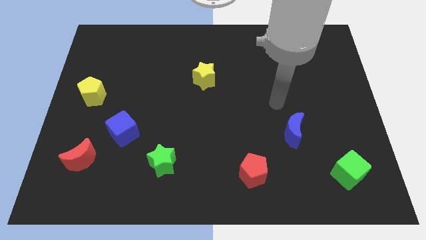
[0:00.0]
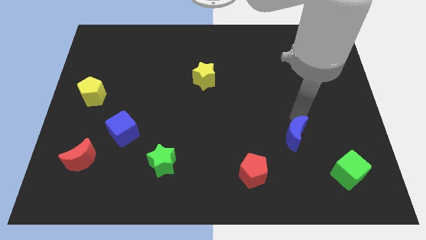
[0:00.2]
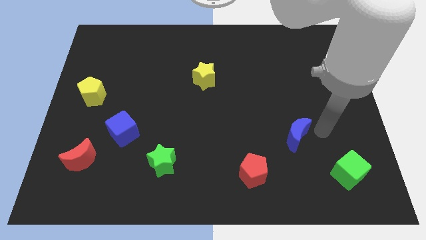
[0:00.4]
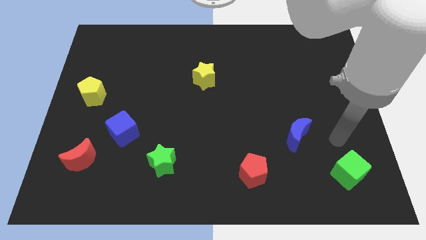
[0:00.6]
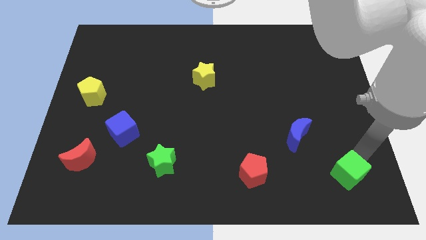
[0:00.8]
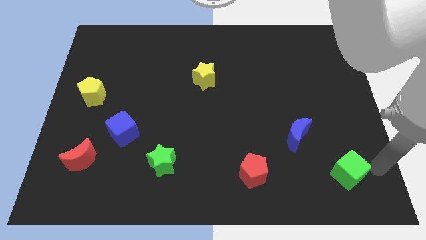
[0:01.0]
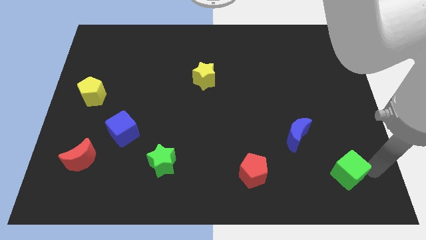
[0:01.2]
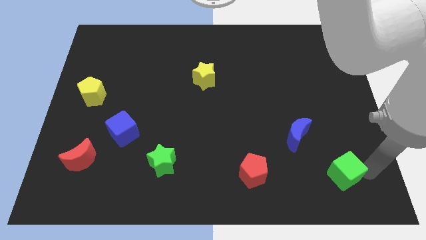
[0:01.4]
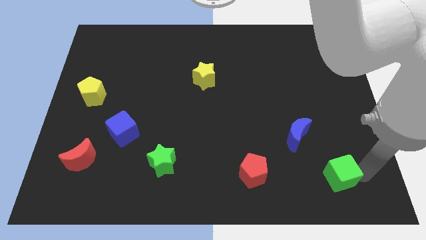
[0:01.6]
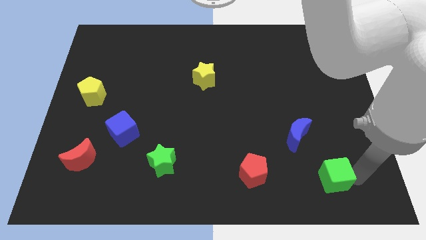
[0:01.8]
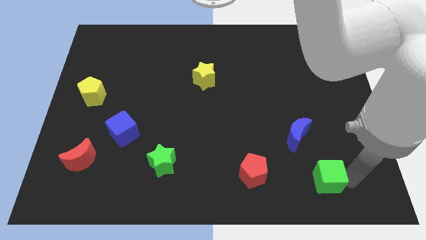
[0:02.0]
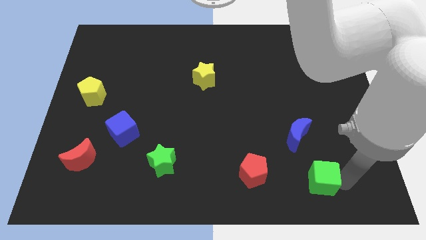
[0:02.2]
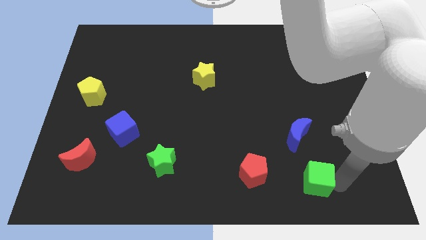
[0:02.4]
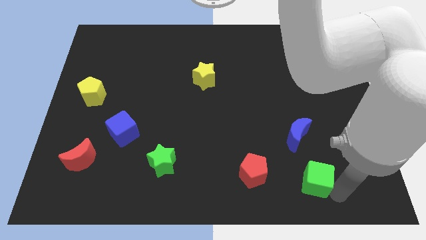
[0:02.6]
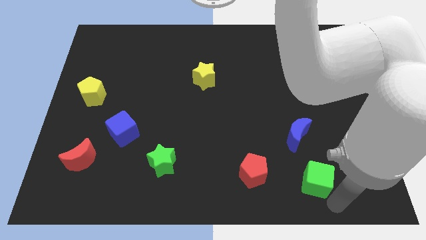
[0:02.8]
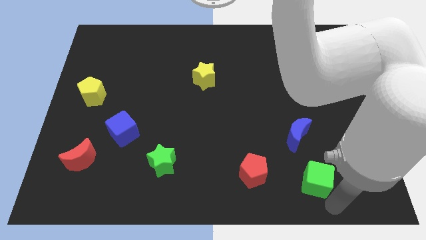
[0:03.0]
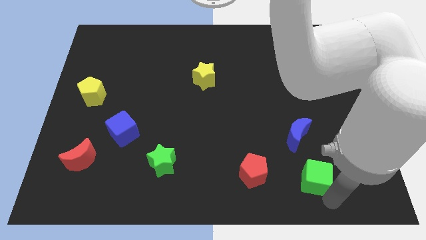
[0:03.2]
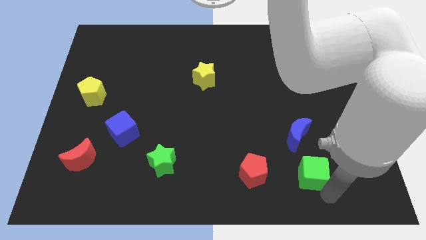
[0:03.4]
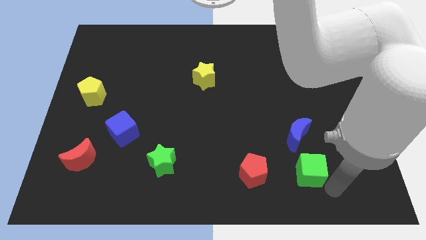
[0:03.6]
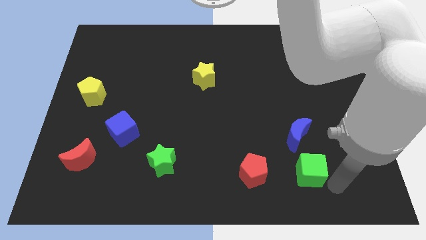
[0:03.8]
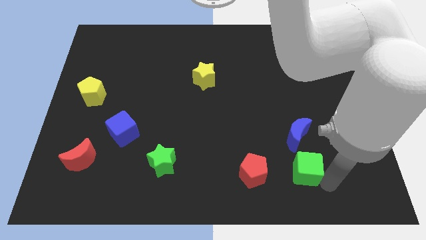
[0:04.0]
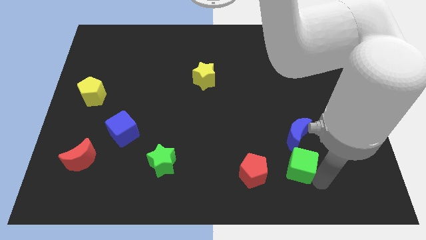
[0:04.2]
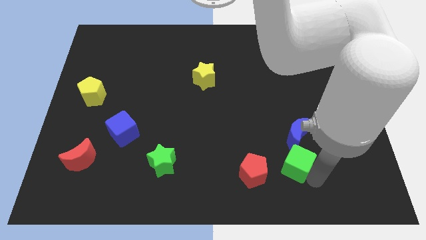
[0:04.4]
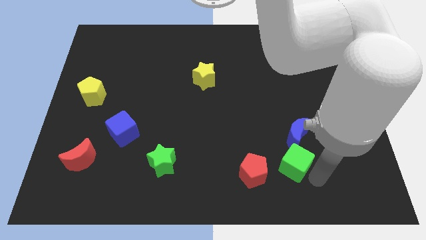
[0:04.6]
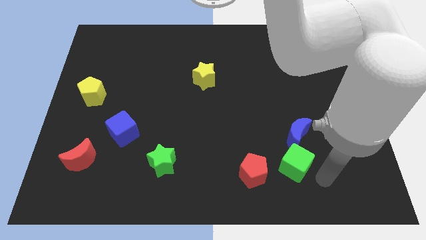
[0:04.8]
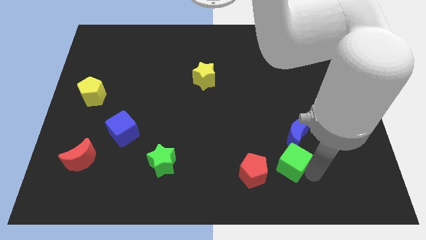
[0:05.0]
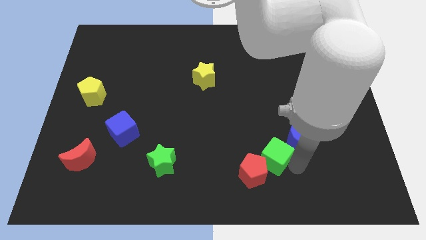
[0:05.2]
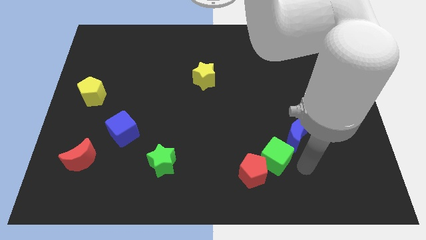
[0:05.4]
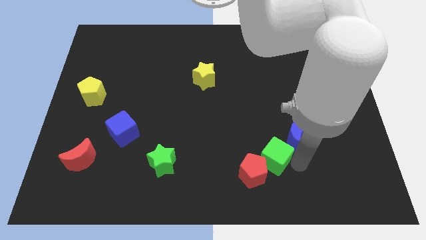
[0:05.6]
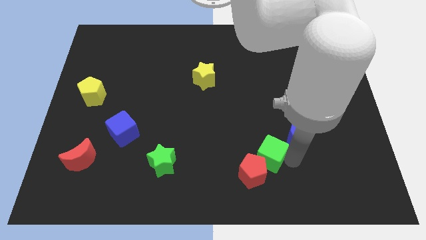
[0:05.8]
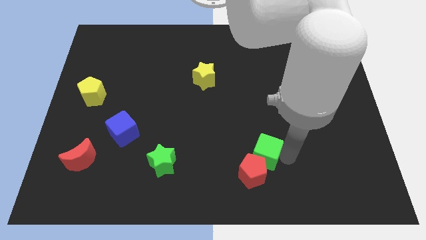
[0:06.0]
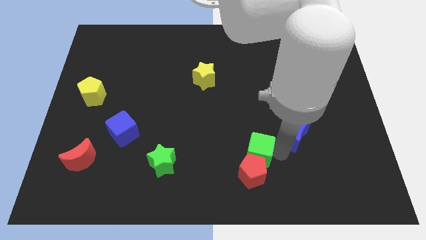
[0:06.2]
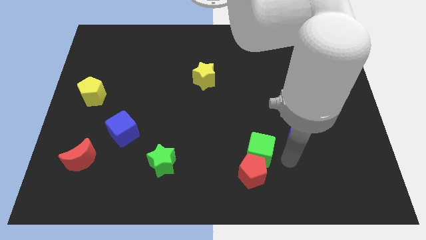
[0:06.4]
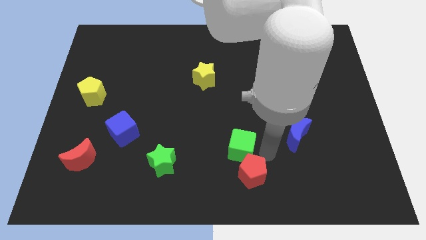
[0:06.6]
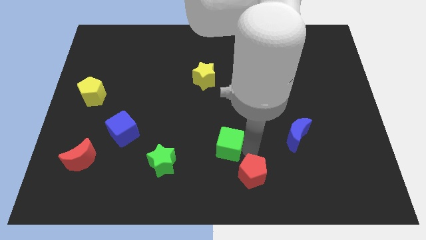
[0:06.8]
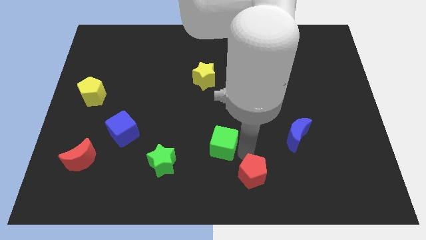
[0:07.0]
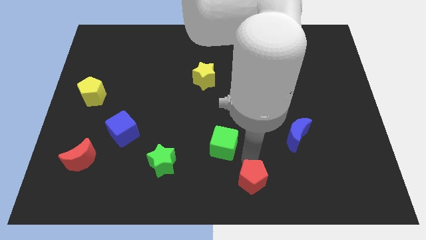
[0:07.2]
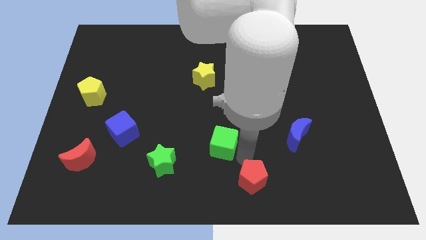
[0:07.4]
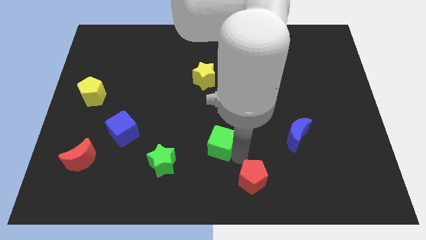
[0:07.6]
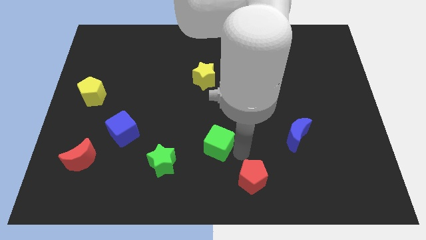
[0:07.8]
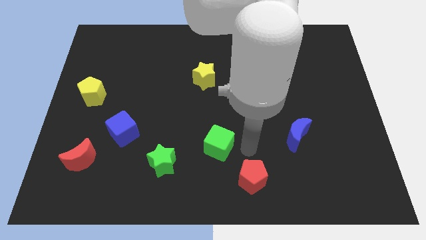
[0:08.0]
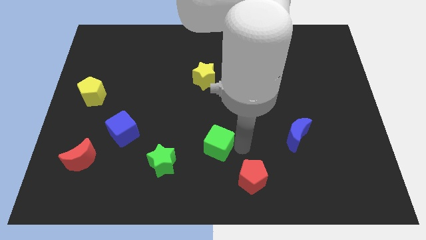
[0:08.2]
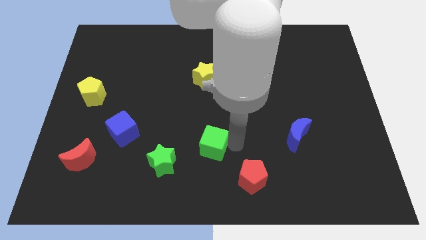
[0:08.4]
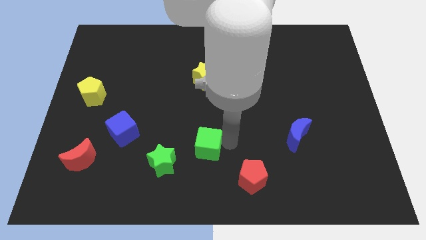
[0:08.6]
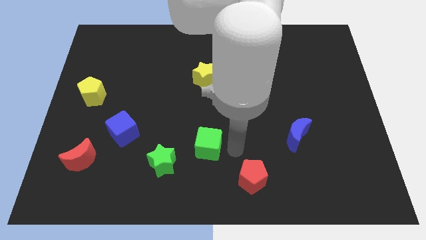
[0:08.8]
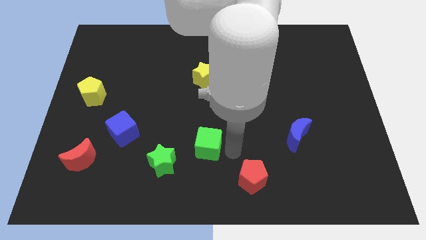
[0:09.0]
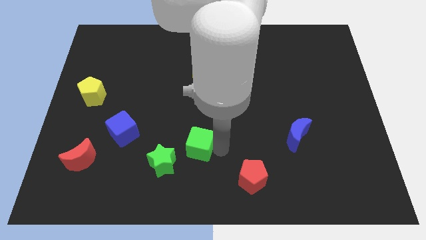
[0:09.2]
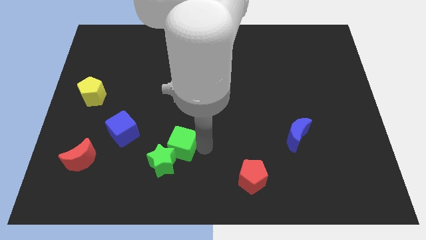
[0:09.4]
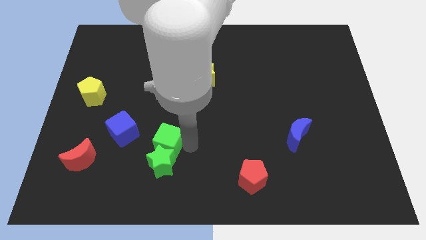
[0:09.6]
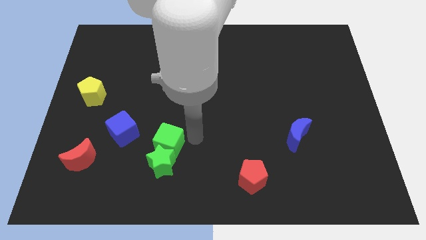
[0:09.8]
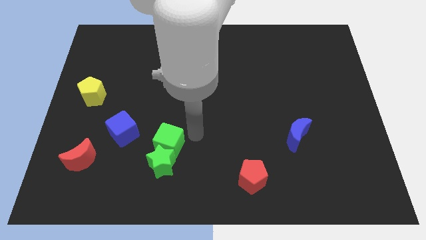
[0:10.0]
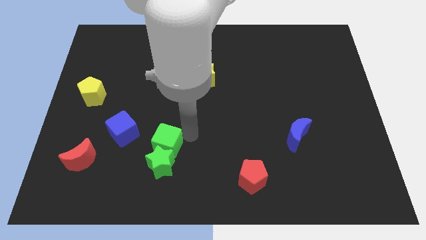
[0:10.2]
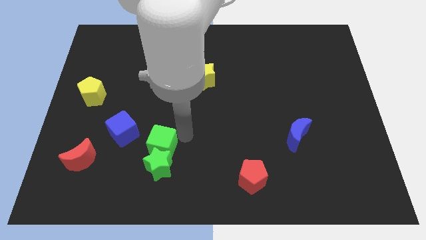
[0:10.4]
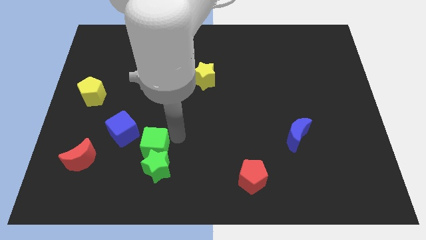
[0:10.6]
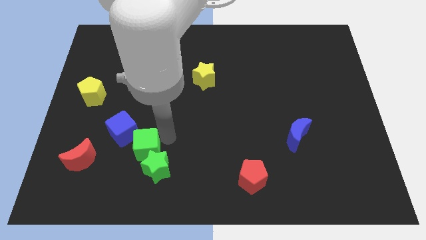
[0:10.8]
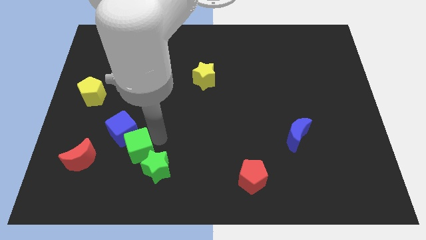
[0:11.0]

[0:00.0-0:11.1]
move the green cube to the left side of the green star

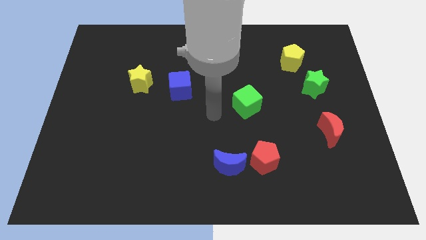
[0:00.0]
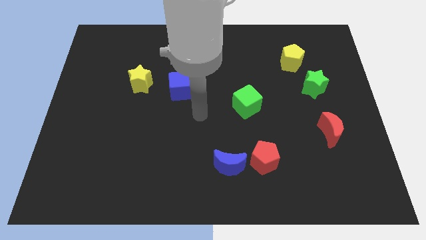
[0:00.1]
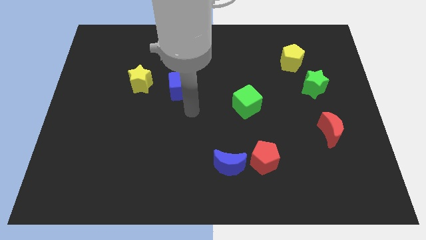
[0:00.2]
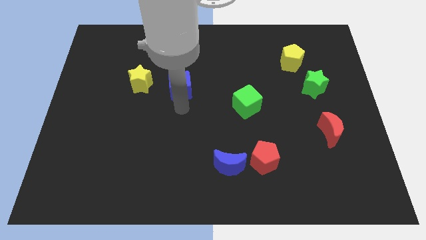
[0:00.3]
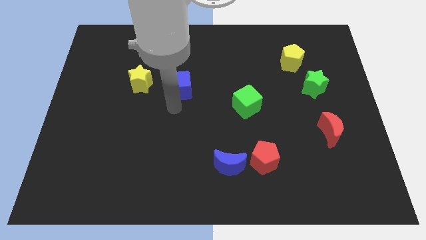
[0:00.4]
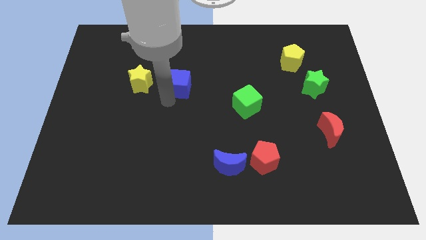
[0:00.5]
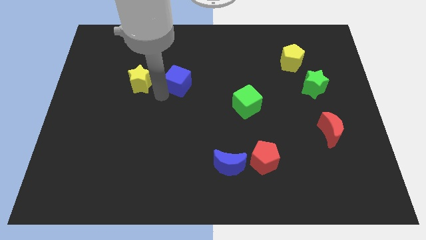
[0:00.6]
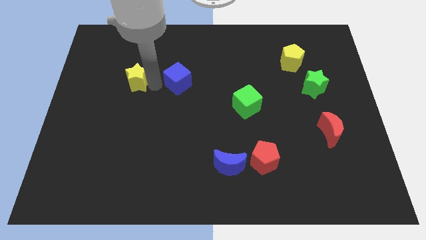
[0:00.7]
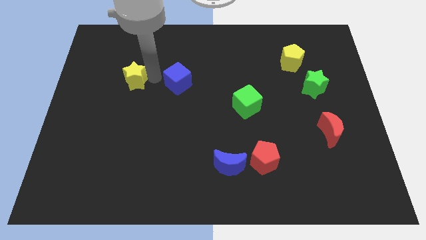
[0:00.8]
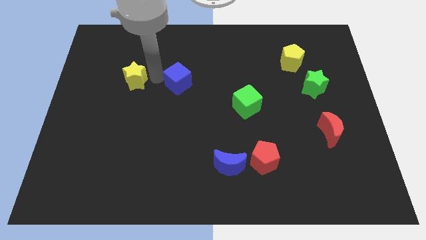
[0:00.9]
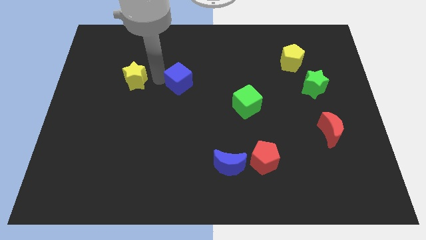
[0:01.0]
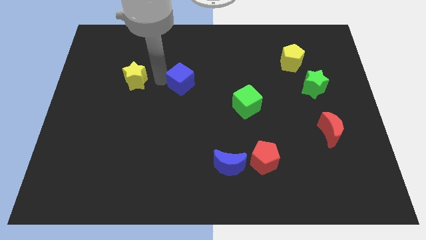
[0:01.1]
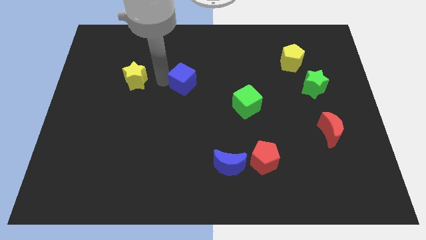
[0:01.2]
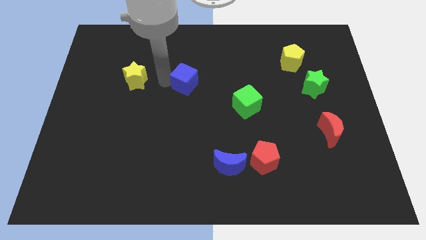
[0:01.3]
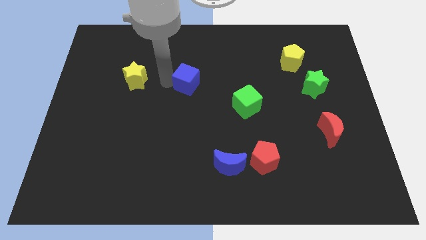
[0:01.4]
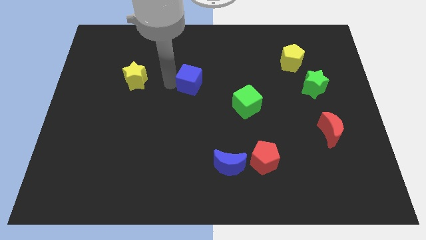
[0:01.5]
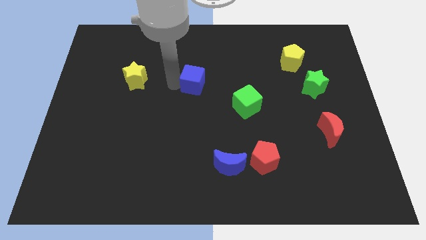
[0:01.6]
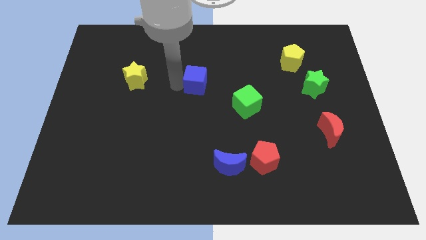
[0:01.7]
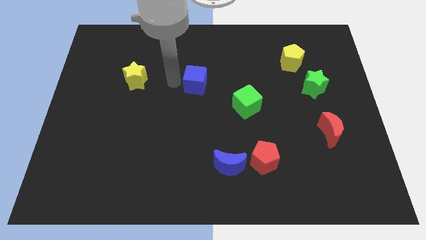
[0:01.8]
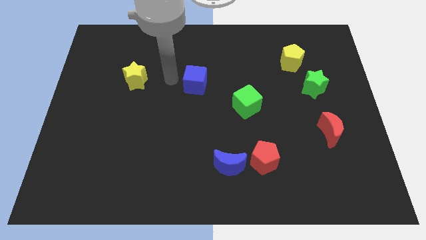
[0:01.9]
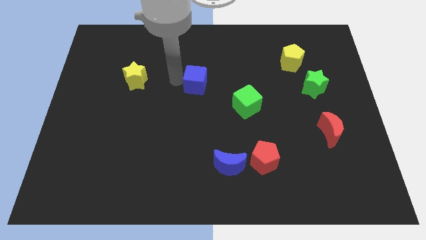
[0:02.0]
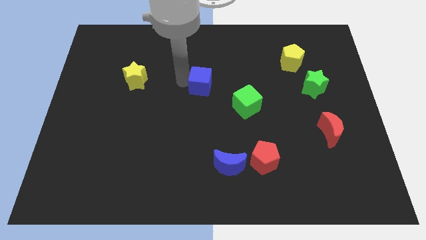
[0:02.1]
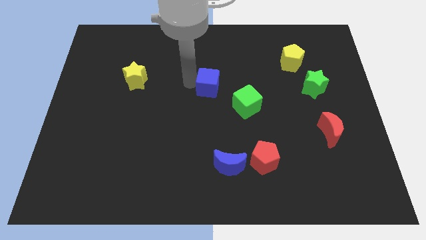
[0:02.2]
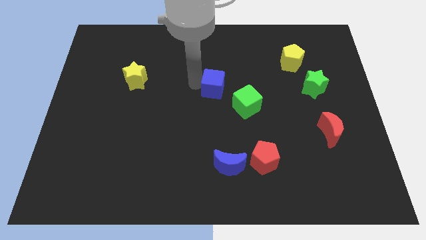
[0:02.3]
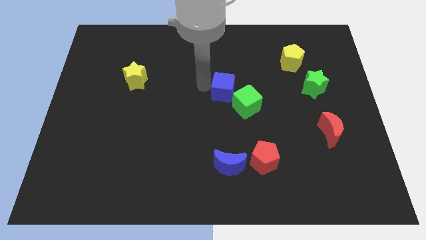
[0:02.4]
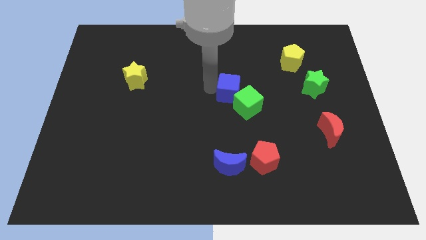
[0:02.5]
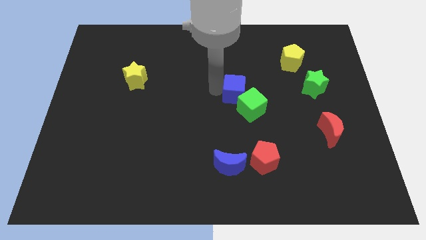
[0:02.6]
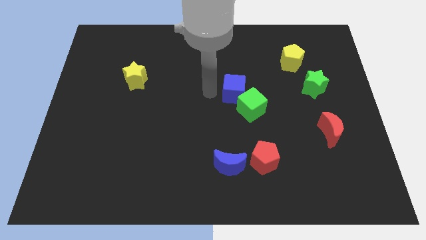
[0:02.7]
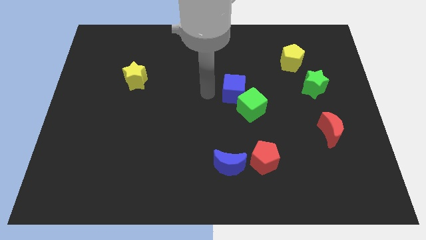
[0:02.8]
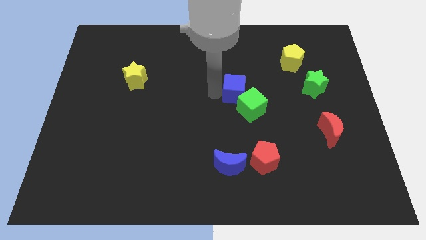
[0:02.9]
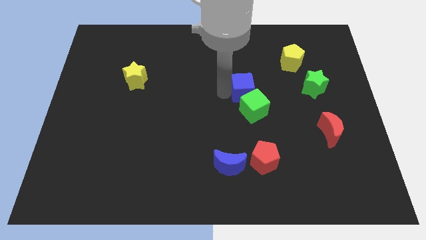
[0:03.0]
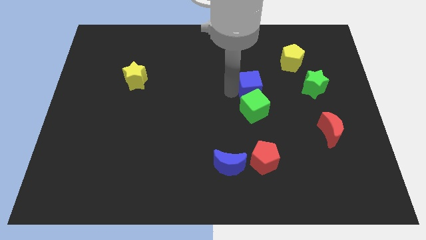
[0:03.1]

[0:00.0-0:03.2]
put the blue cube diagonally up and to the right of the green cube
